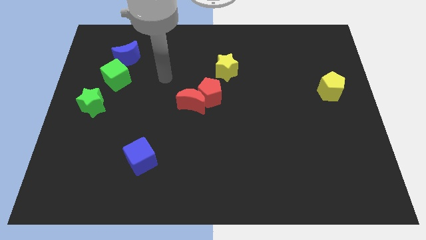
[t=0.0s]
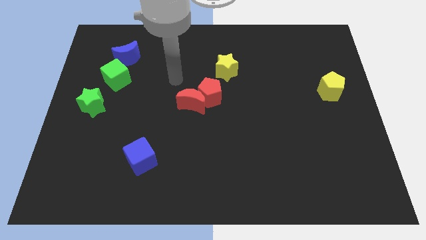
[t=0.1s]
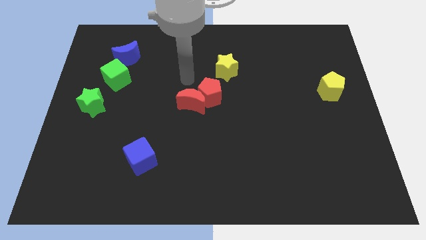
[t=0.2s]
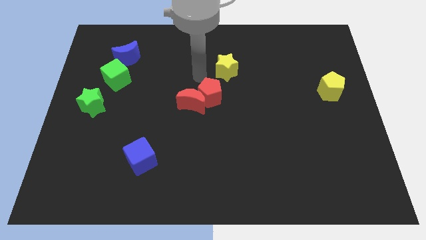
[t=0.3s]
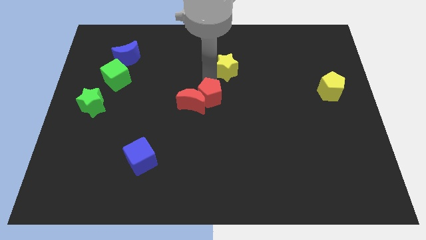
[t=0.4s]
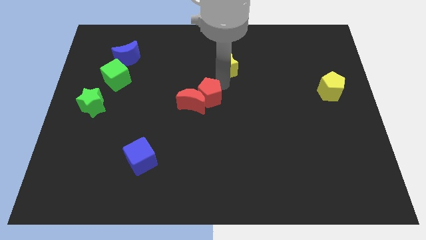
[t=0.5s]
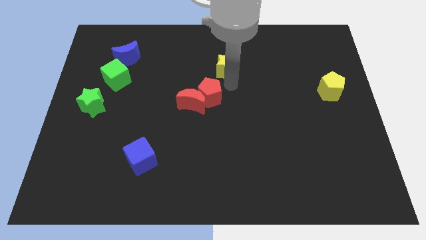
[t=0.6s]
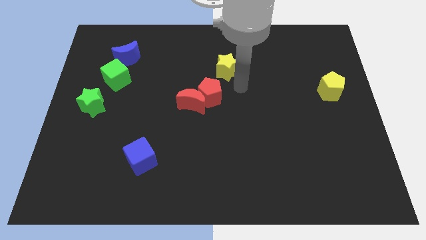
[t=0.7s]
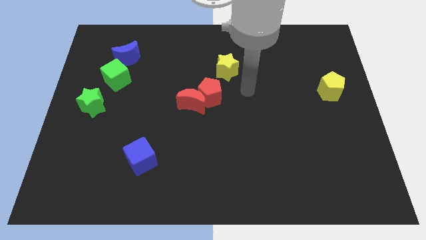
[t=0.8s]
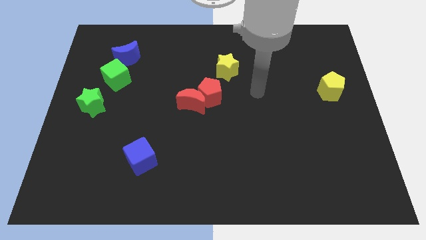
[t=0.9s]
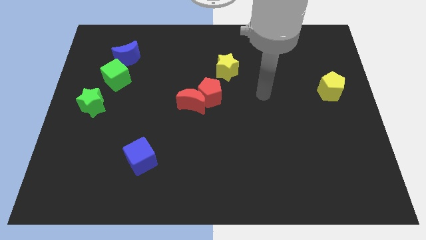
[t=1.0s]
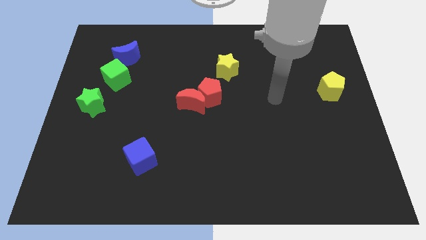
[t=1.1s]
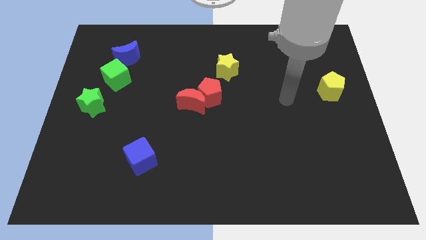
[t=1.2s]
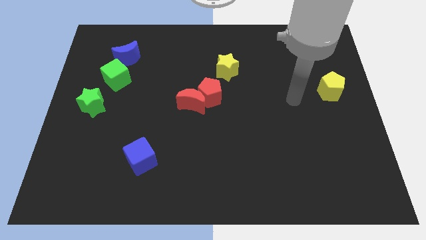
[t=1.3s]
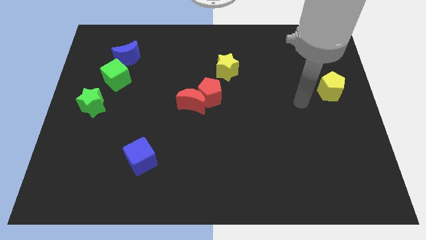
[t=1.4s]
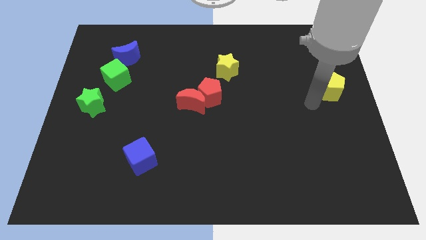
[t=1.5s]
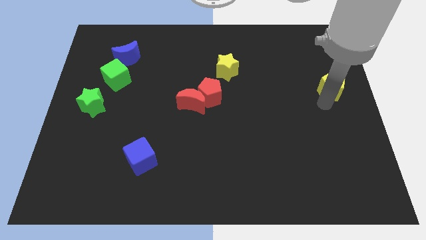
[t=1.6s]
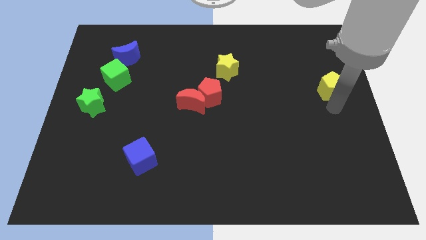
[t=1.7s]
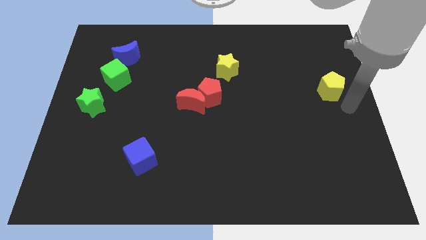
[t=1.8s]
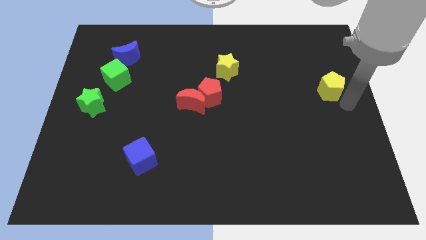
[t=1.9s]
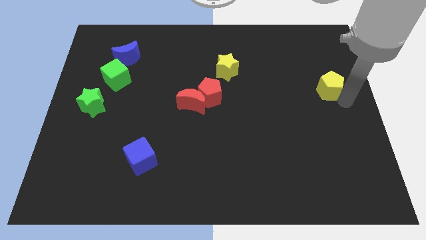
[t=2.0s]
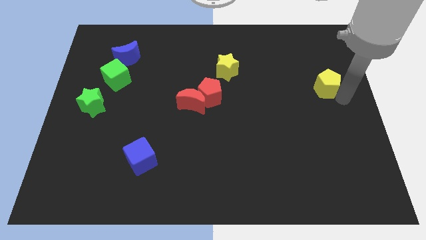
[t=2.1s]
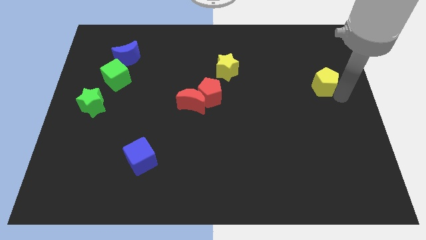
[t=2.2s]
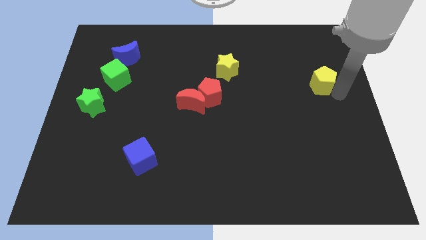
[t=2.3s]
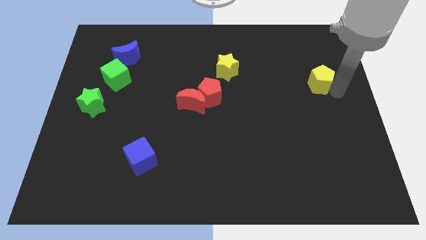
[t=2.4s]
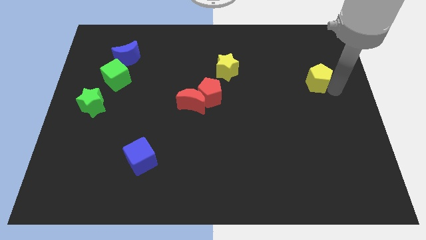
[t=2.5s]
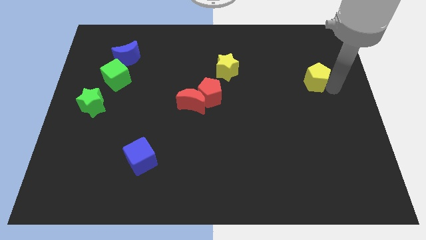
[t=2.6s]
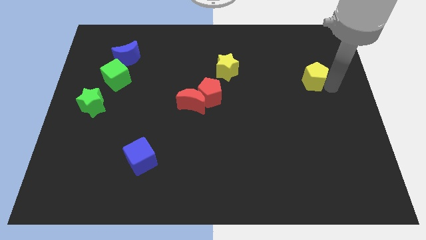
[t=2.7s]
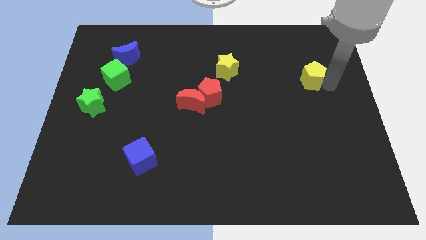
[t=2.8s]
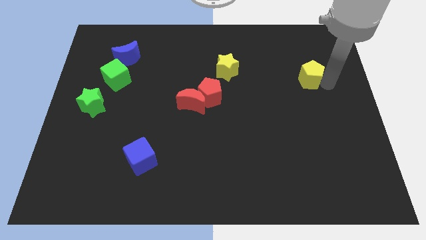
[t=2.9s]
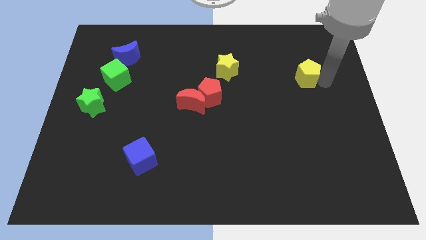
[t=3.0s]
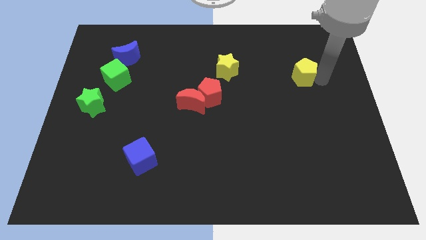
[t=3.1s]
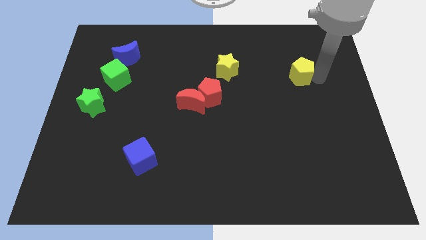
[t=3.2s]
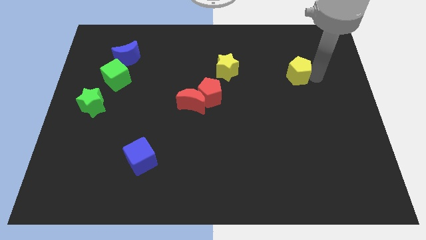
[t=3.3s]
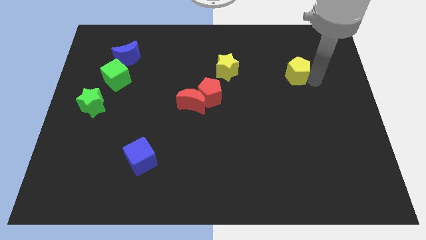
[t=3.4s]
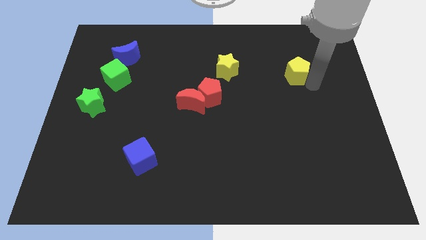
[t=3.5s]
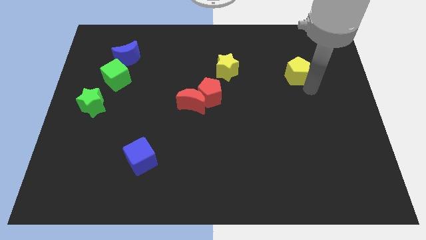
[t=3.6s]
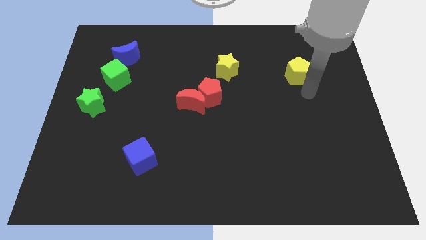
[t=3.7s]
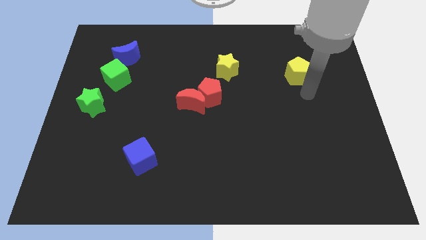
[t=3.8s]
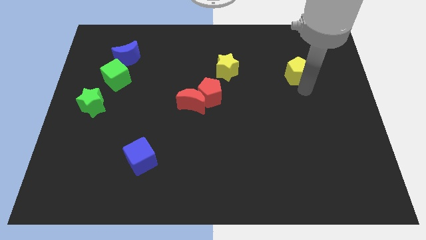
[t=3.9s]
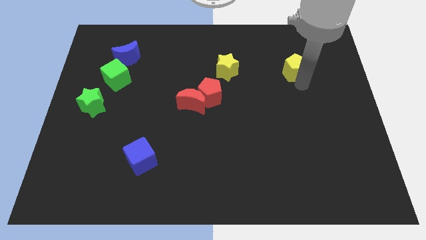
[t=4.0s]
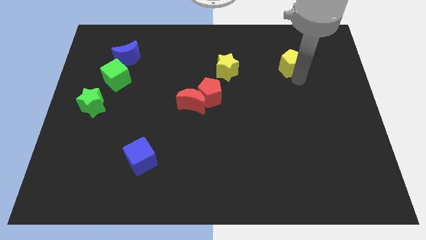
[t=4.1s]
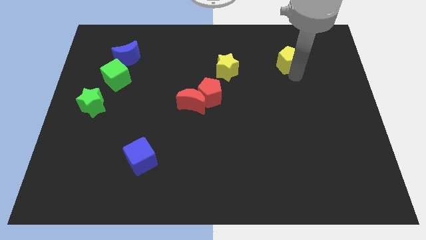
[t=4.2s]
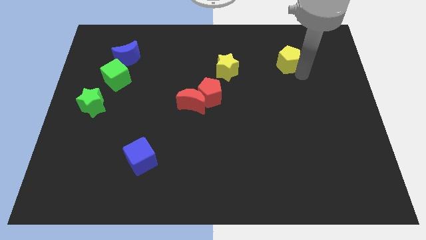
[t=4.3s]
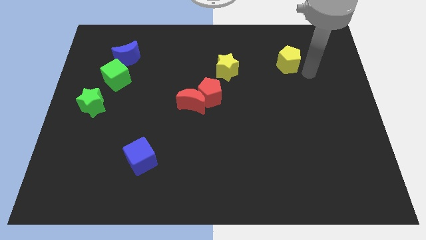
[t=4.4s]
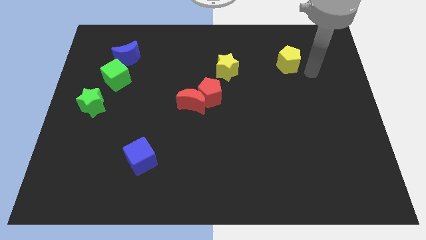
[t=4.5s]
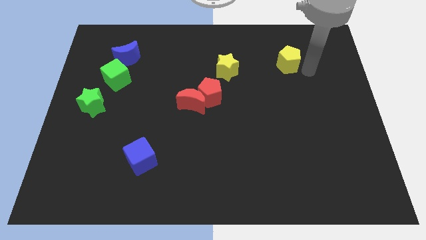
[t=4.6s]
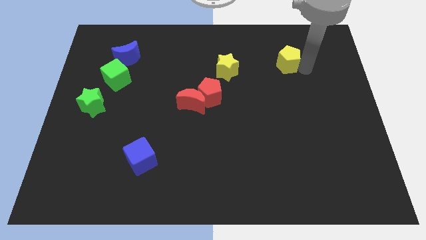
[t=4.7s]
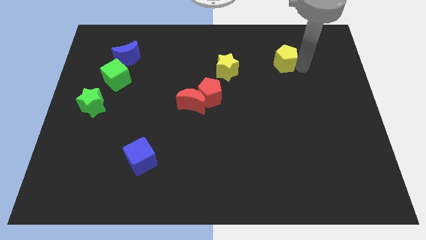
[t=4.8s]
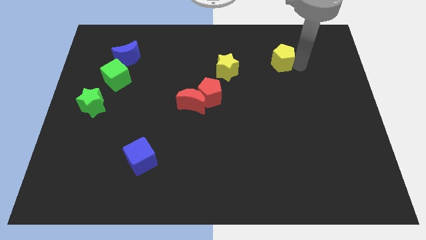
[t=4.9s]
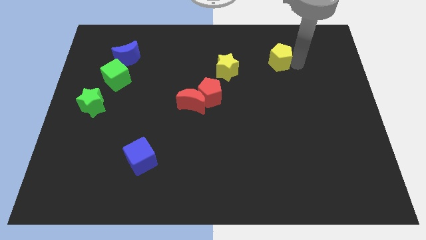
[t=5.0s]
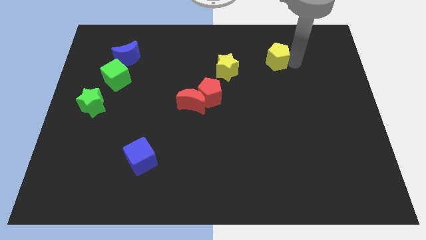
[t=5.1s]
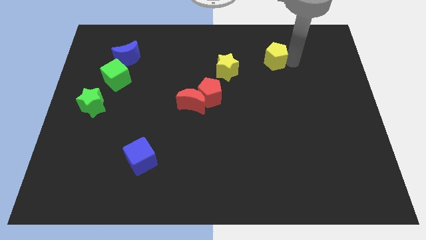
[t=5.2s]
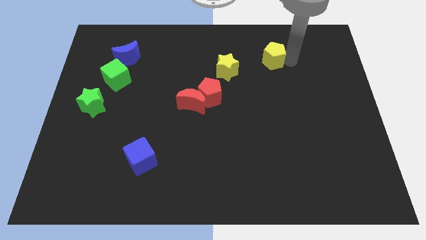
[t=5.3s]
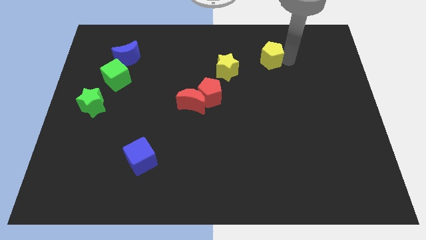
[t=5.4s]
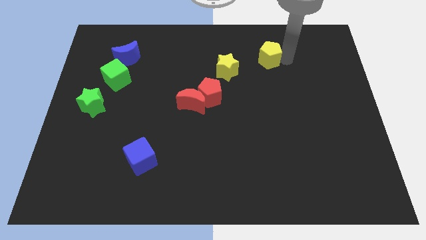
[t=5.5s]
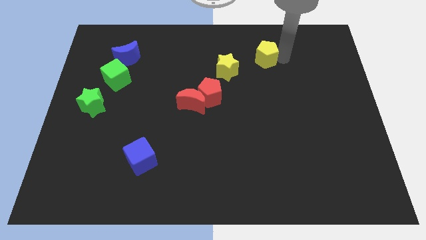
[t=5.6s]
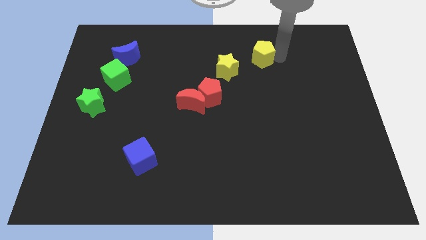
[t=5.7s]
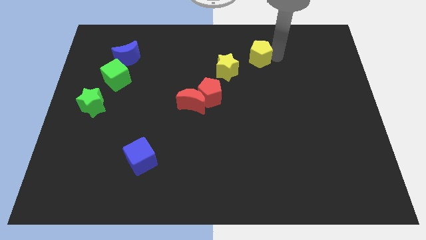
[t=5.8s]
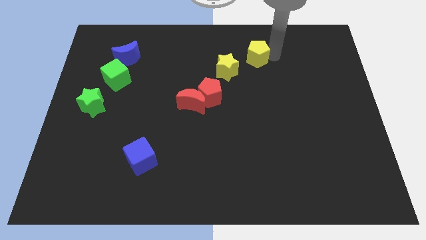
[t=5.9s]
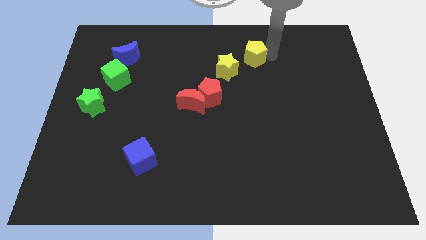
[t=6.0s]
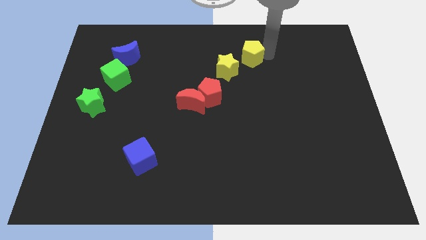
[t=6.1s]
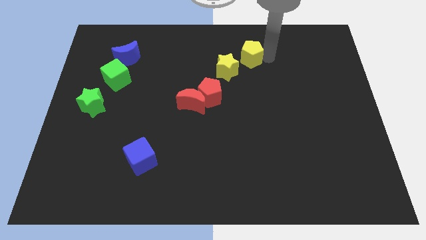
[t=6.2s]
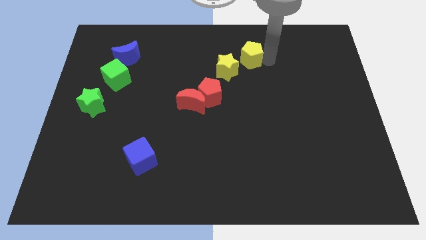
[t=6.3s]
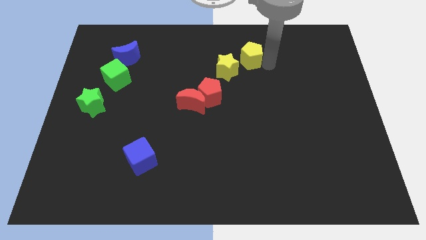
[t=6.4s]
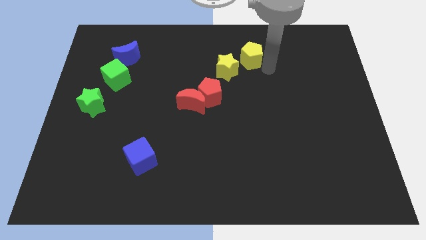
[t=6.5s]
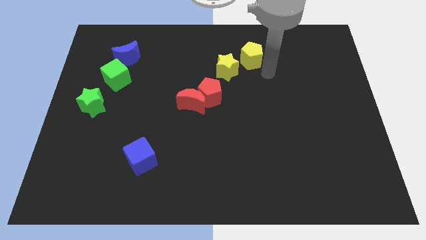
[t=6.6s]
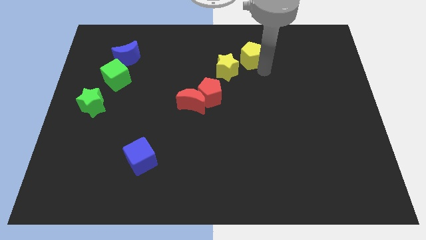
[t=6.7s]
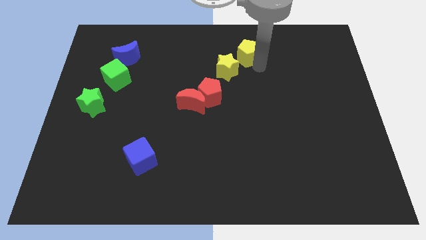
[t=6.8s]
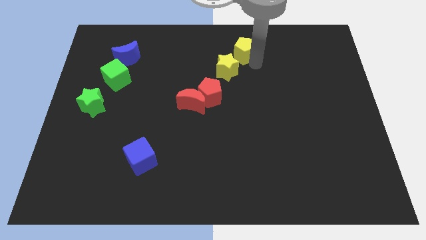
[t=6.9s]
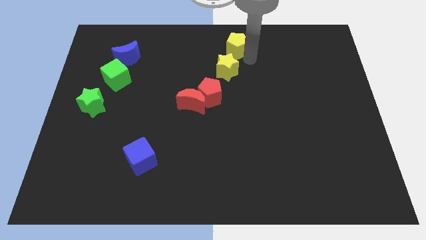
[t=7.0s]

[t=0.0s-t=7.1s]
slide the yellow pentagon to the top
